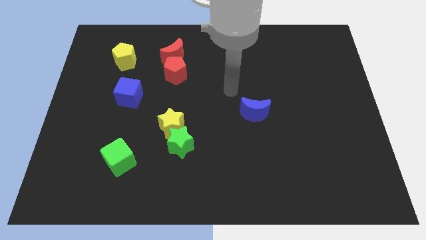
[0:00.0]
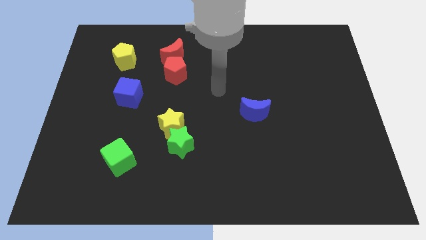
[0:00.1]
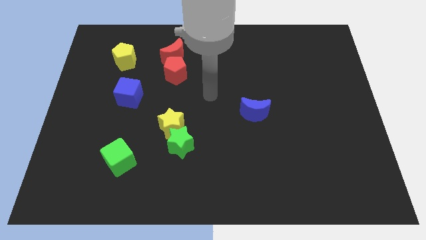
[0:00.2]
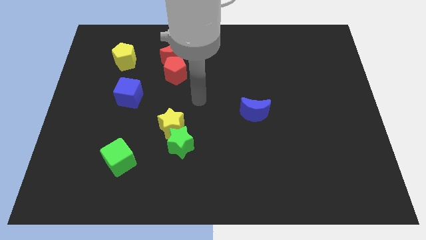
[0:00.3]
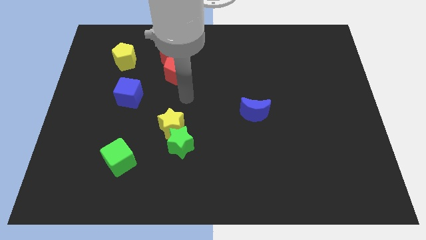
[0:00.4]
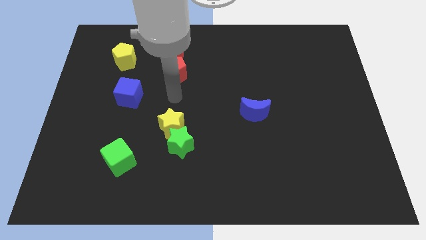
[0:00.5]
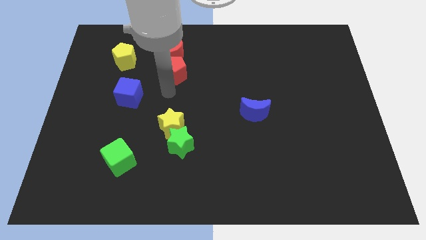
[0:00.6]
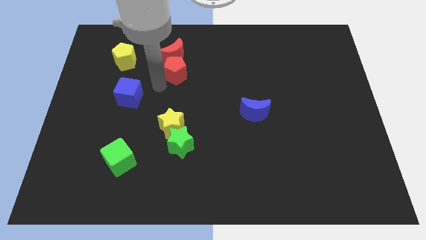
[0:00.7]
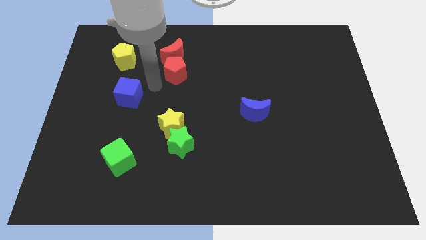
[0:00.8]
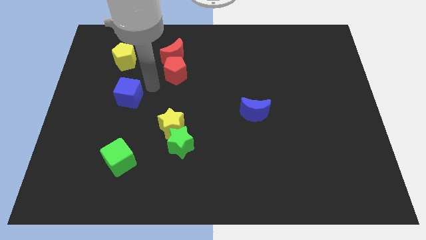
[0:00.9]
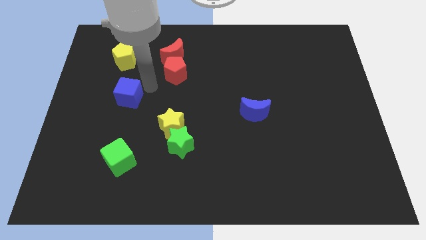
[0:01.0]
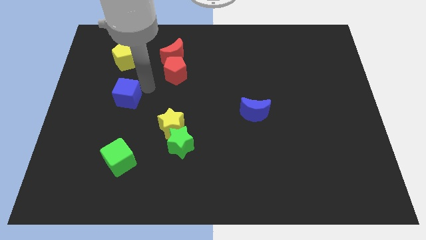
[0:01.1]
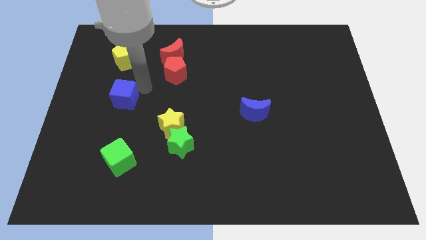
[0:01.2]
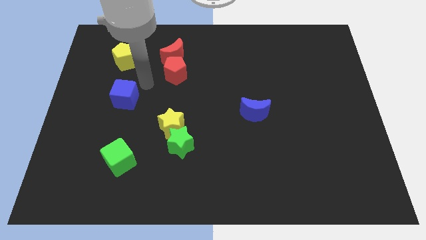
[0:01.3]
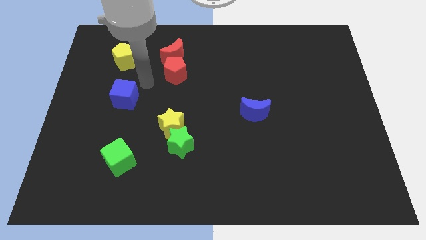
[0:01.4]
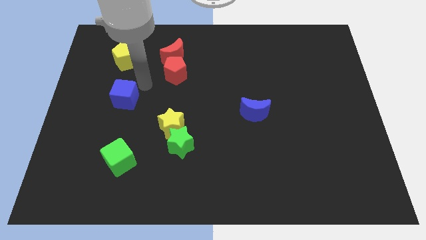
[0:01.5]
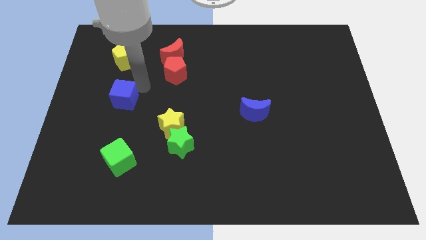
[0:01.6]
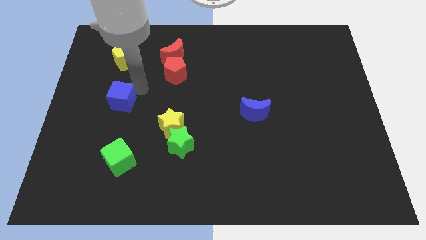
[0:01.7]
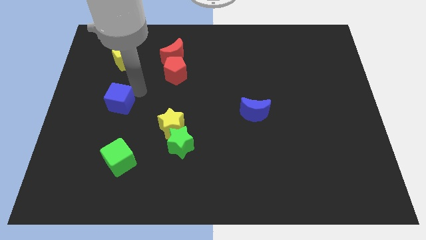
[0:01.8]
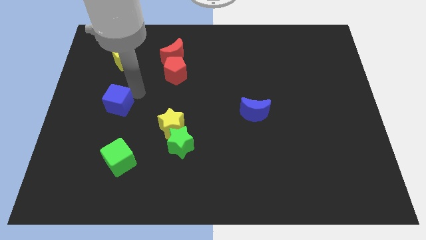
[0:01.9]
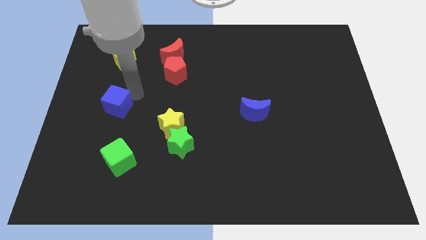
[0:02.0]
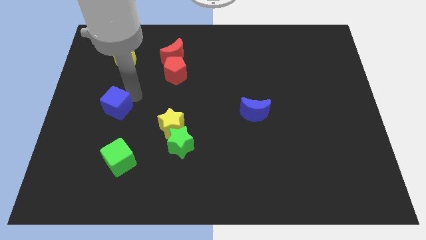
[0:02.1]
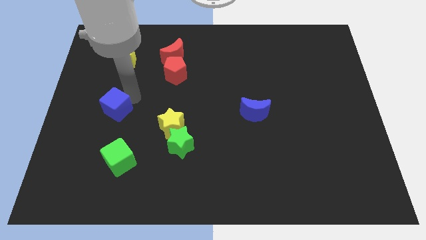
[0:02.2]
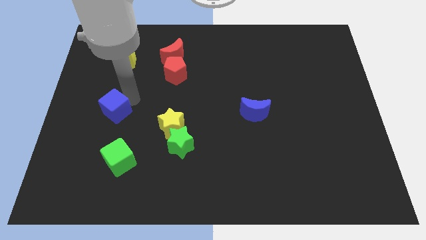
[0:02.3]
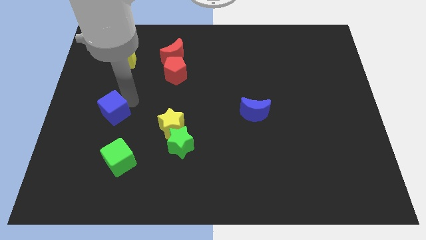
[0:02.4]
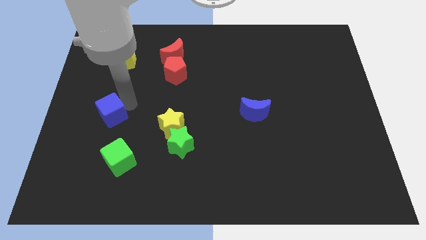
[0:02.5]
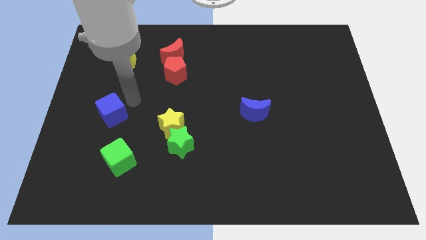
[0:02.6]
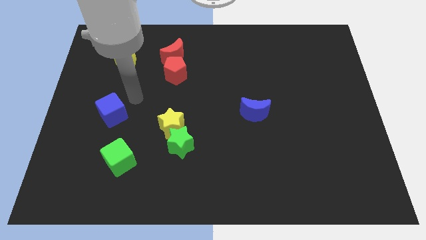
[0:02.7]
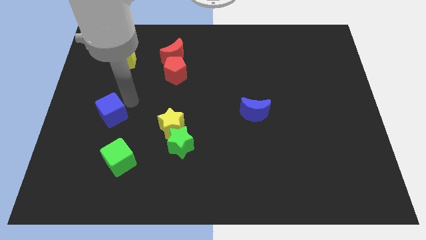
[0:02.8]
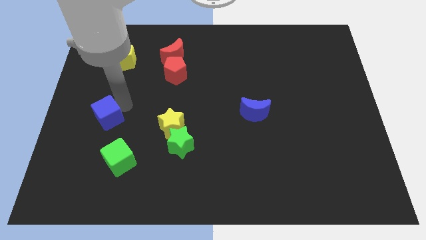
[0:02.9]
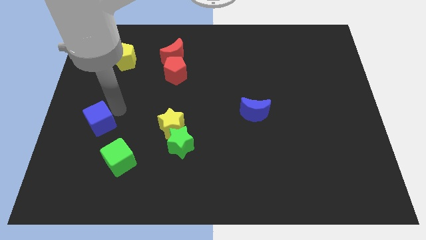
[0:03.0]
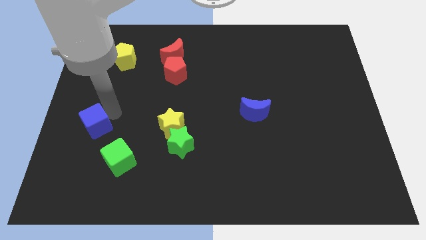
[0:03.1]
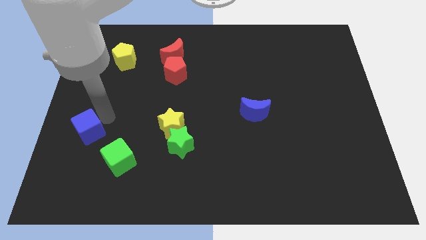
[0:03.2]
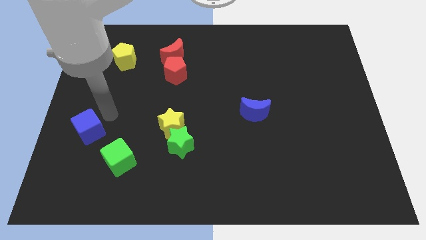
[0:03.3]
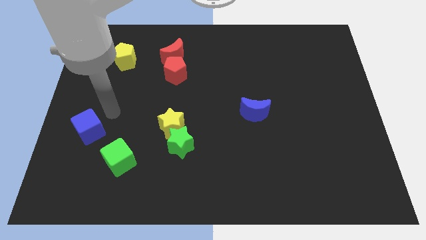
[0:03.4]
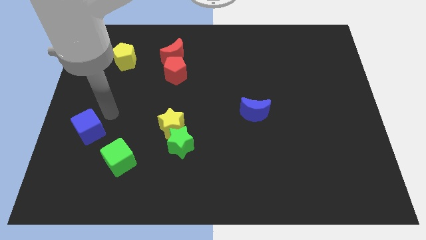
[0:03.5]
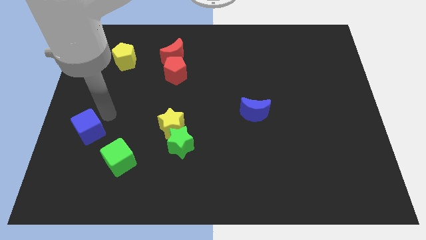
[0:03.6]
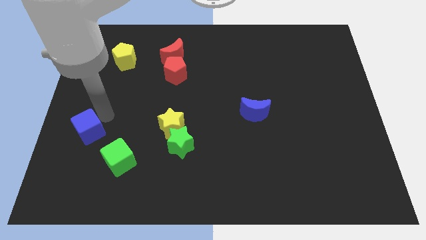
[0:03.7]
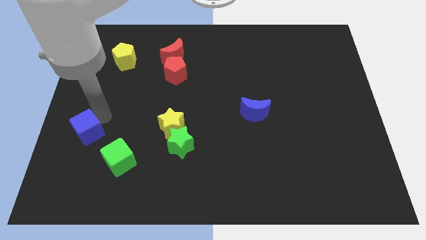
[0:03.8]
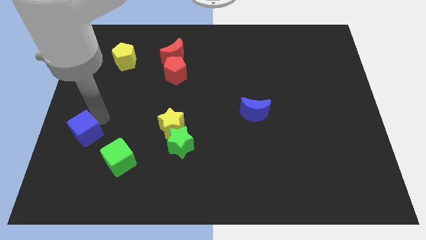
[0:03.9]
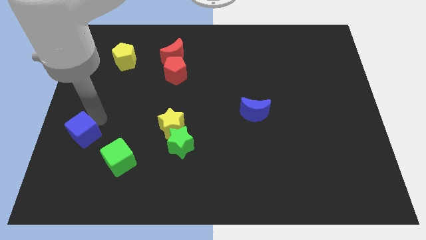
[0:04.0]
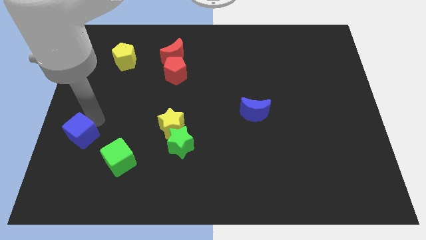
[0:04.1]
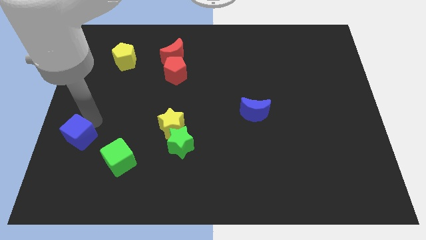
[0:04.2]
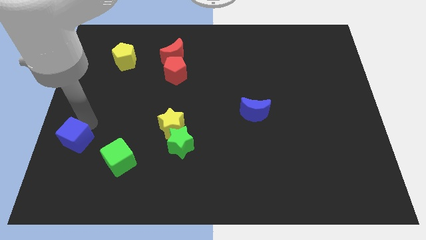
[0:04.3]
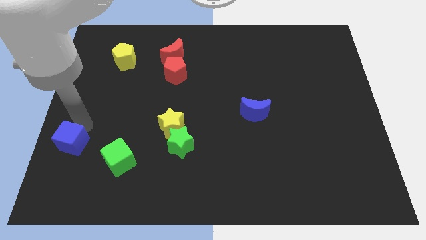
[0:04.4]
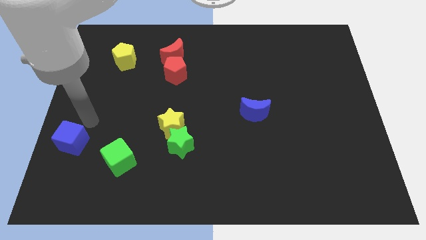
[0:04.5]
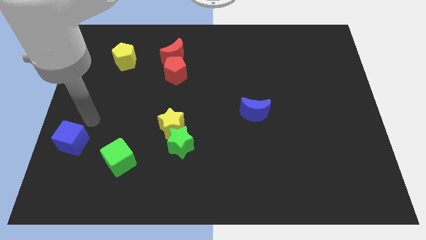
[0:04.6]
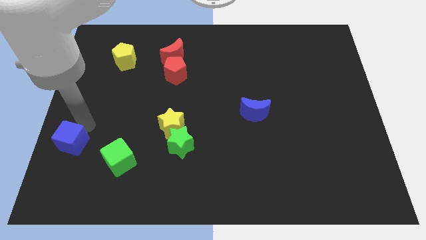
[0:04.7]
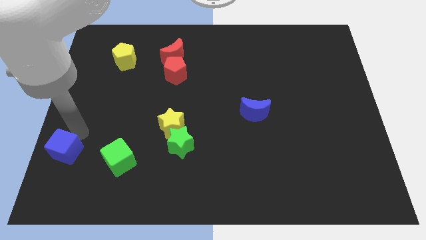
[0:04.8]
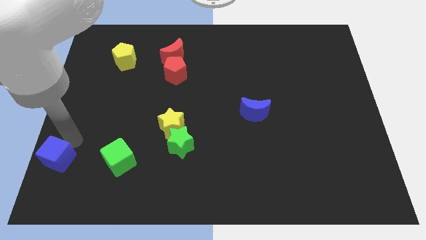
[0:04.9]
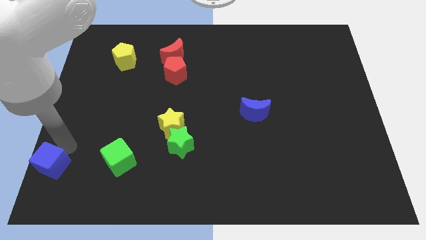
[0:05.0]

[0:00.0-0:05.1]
slide the blue cube to the lower left corner

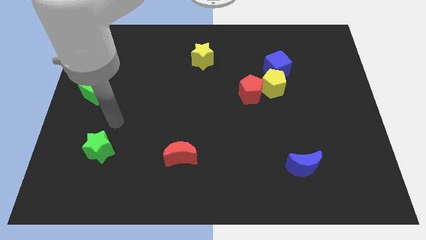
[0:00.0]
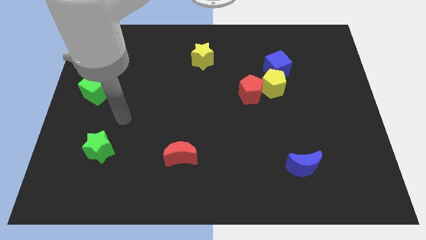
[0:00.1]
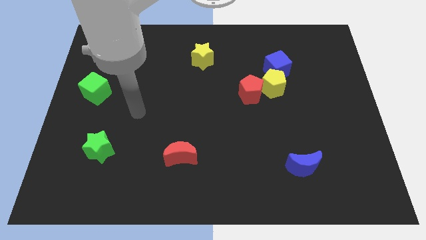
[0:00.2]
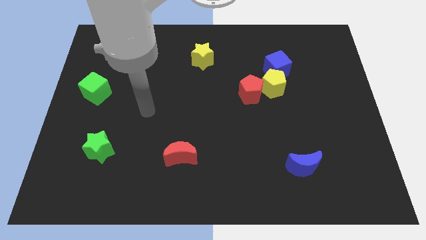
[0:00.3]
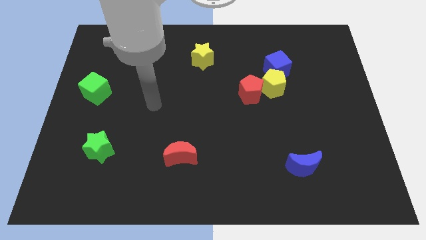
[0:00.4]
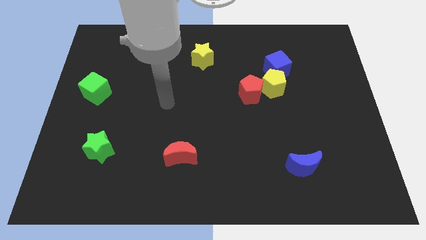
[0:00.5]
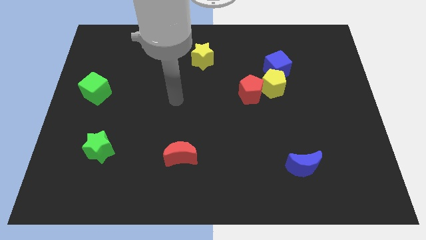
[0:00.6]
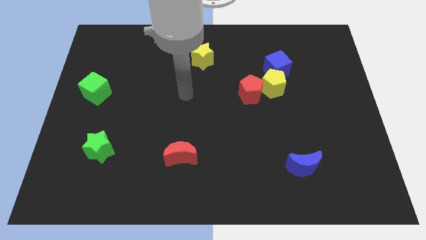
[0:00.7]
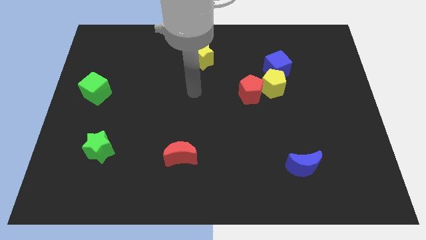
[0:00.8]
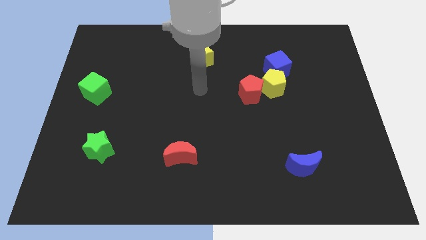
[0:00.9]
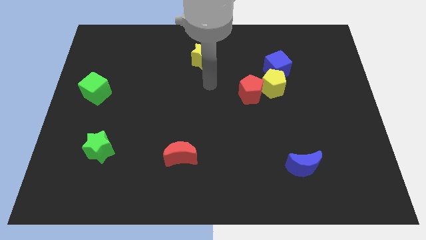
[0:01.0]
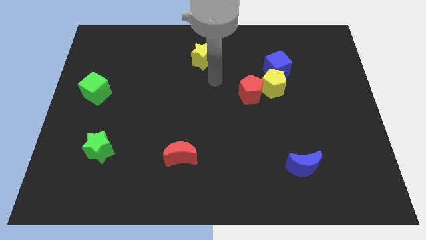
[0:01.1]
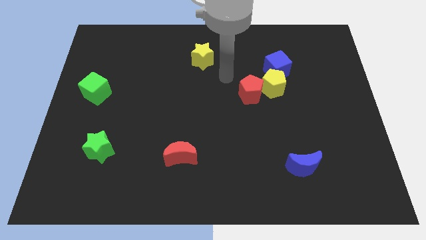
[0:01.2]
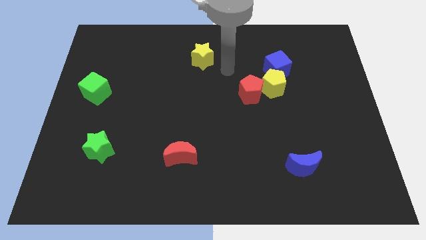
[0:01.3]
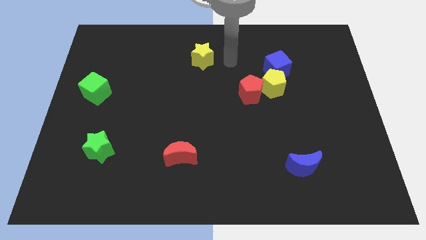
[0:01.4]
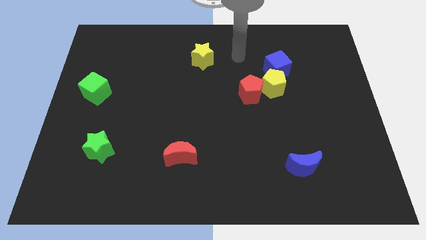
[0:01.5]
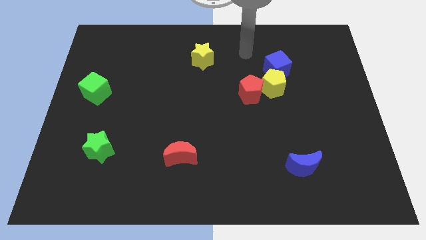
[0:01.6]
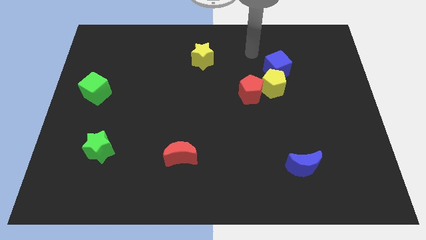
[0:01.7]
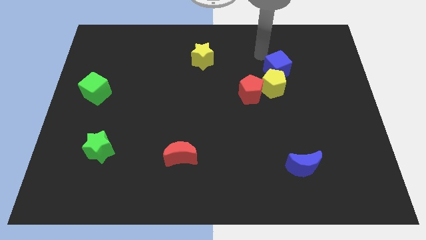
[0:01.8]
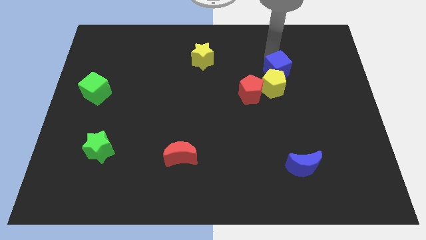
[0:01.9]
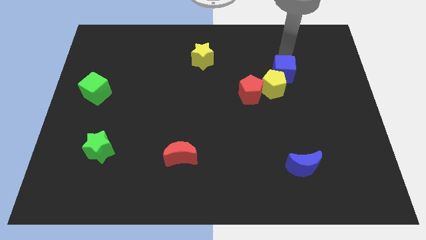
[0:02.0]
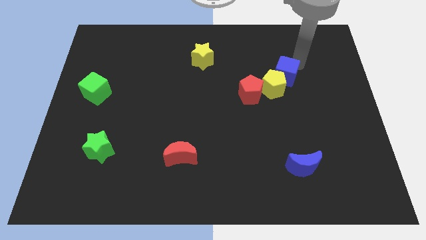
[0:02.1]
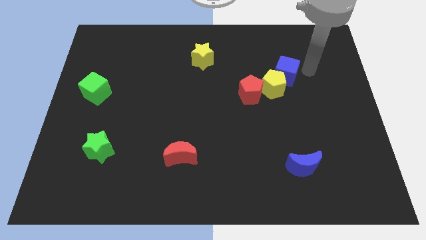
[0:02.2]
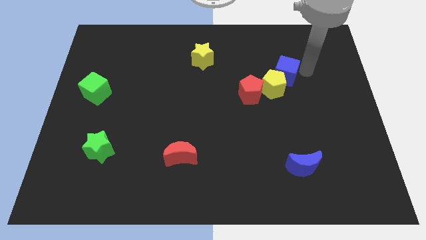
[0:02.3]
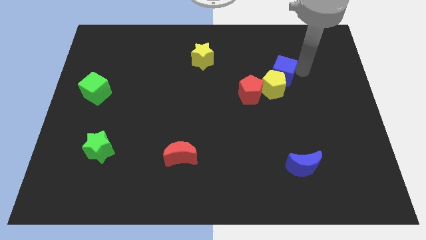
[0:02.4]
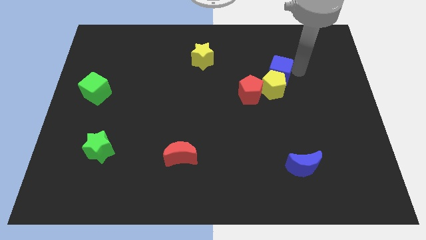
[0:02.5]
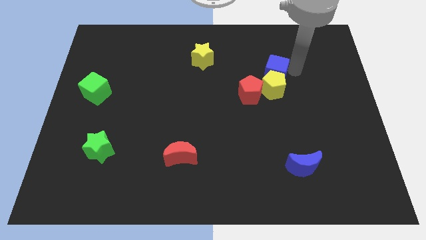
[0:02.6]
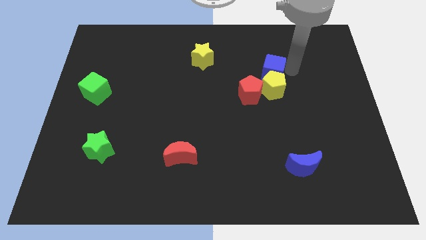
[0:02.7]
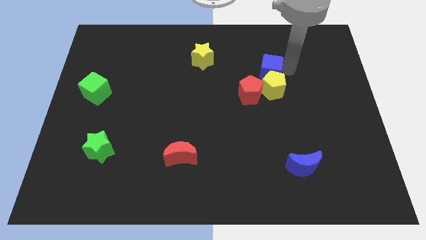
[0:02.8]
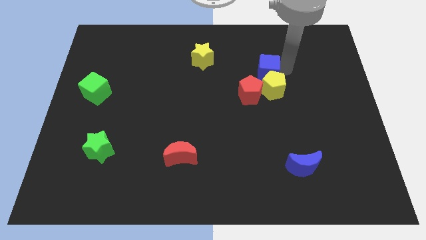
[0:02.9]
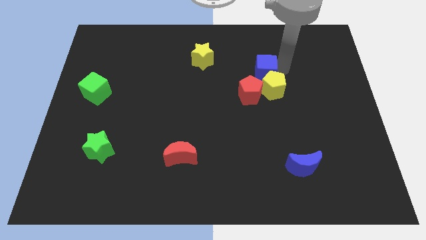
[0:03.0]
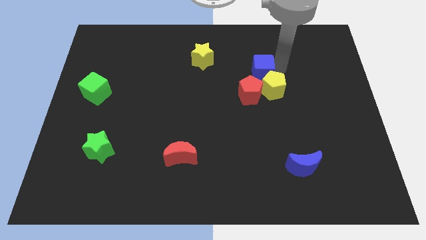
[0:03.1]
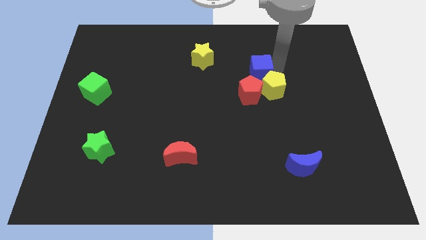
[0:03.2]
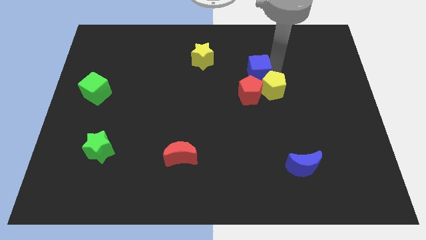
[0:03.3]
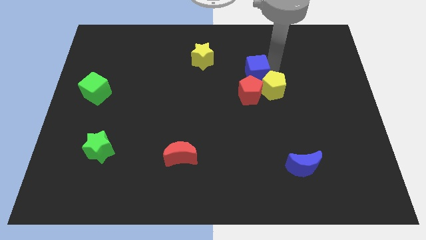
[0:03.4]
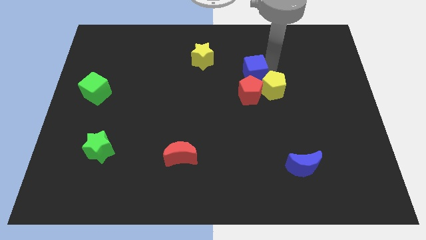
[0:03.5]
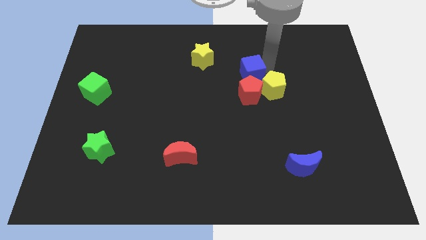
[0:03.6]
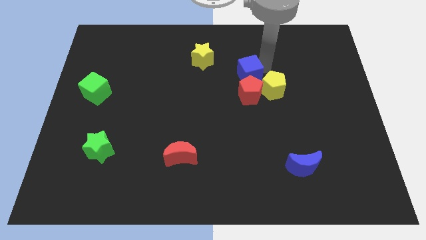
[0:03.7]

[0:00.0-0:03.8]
move the blue cube to the center
